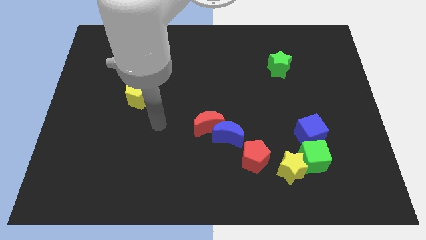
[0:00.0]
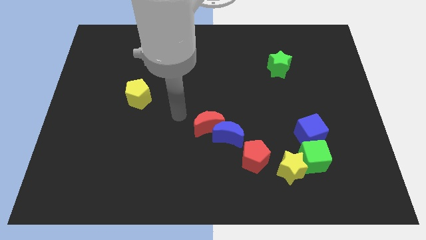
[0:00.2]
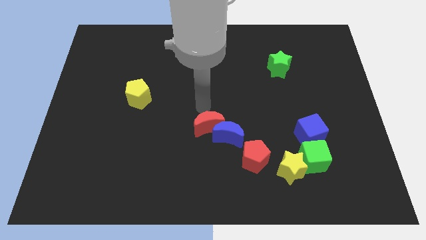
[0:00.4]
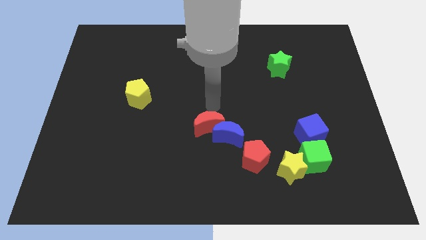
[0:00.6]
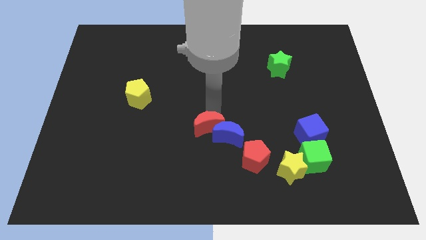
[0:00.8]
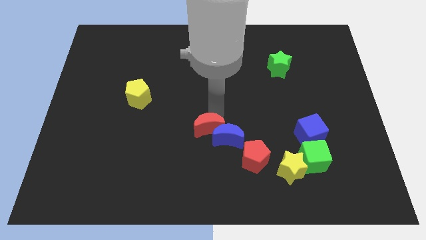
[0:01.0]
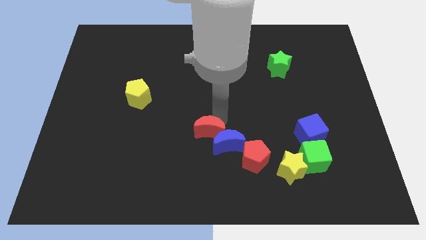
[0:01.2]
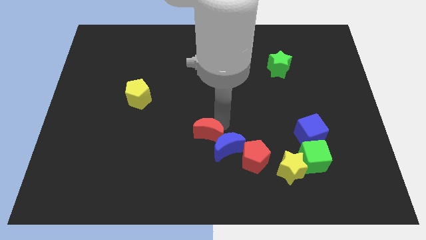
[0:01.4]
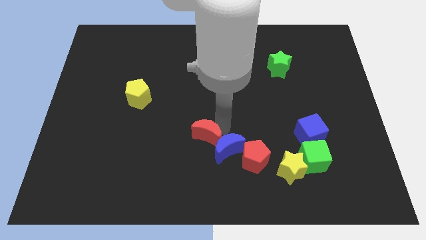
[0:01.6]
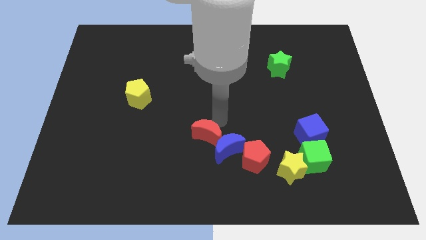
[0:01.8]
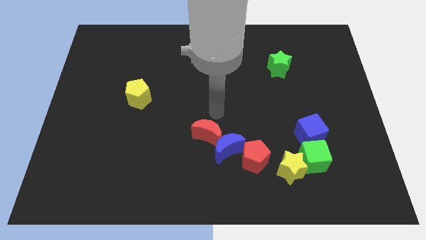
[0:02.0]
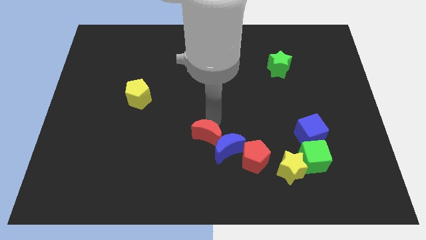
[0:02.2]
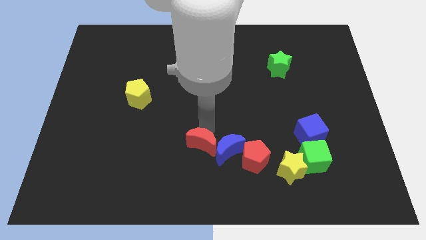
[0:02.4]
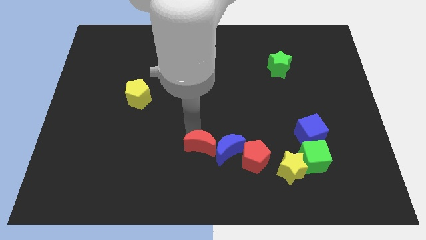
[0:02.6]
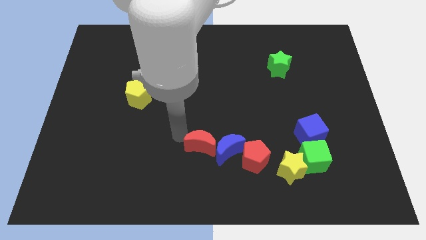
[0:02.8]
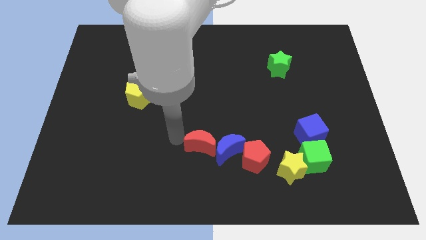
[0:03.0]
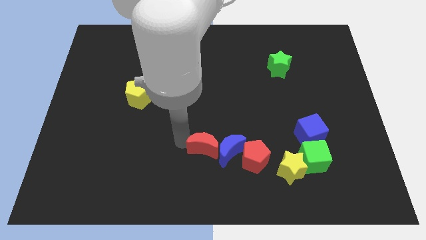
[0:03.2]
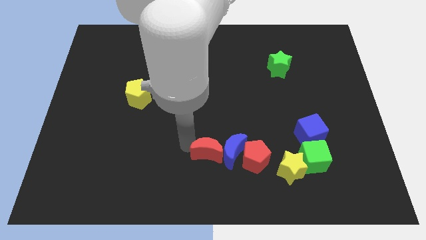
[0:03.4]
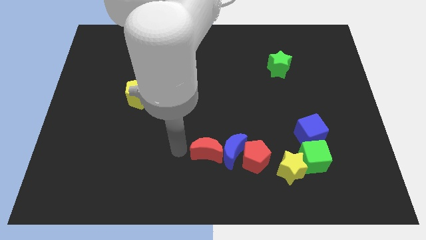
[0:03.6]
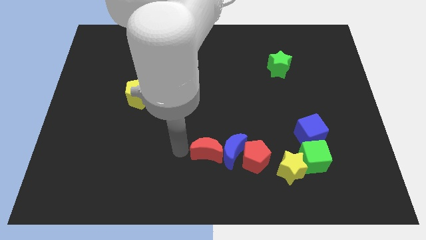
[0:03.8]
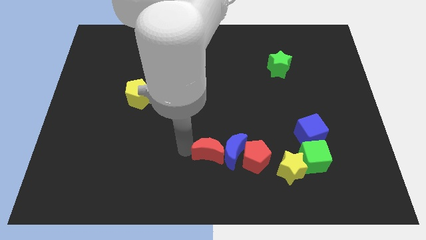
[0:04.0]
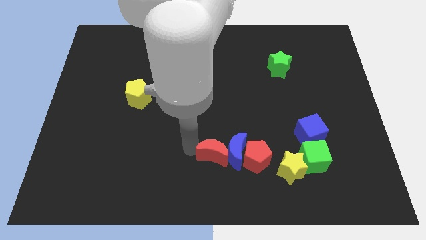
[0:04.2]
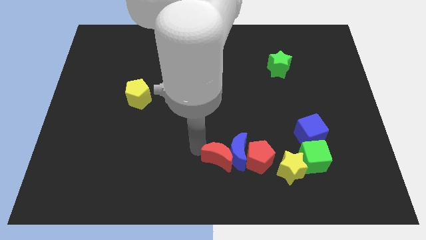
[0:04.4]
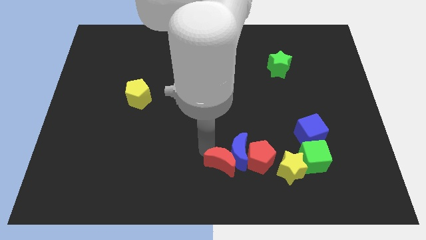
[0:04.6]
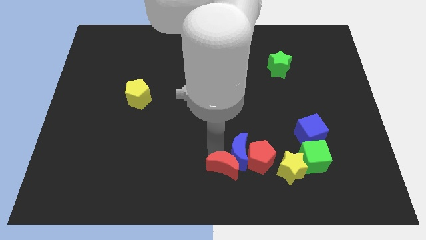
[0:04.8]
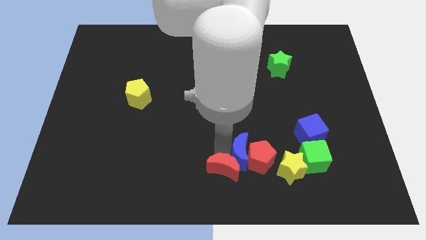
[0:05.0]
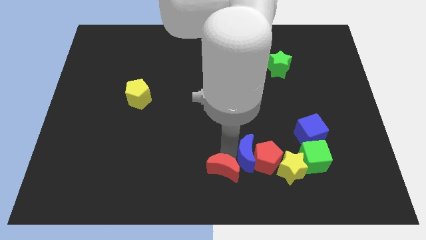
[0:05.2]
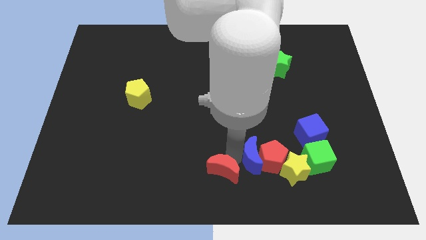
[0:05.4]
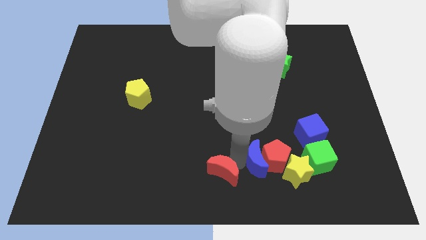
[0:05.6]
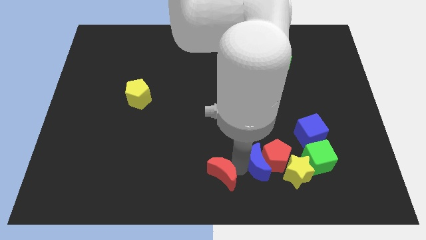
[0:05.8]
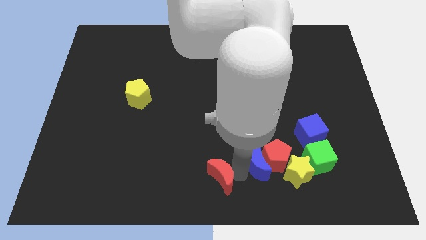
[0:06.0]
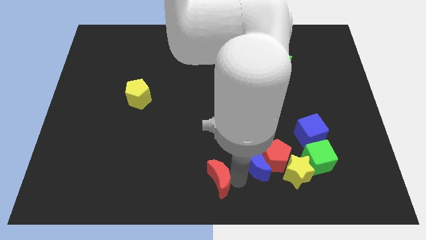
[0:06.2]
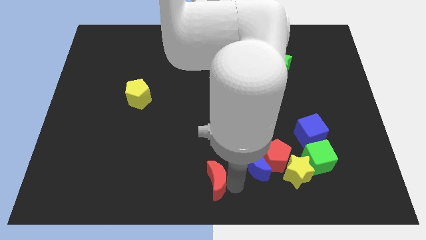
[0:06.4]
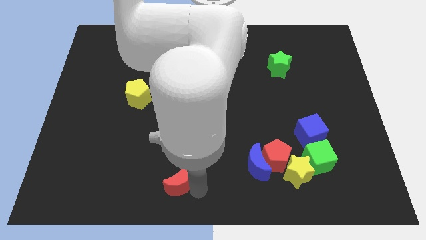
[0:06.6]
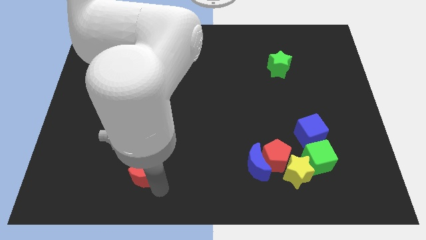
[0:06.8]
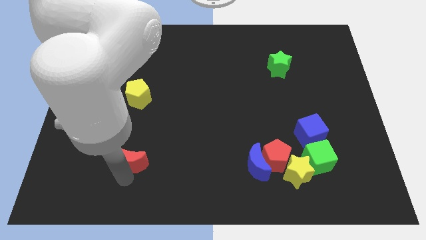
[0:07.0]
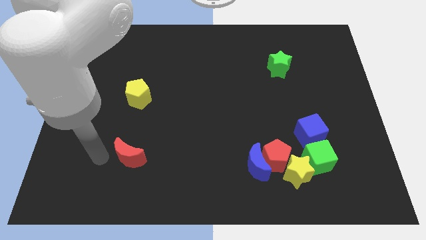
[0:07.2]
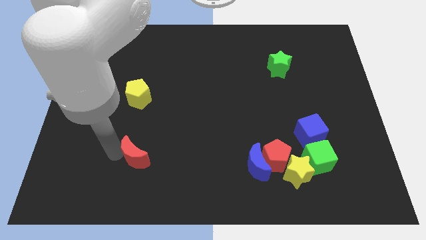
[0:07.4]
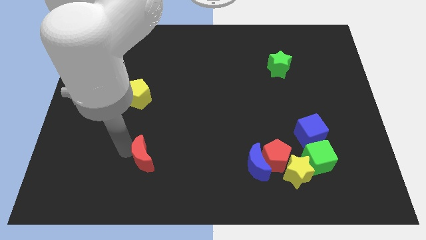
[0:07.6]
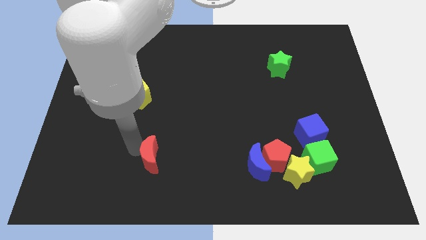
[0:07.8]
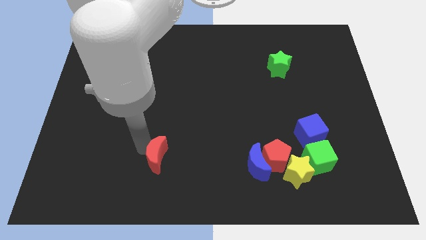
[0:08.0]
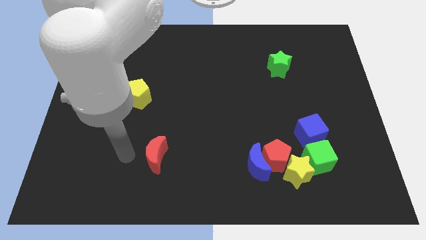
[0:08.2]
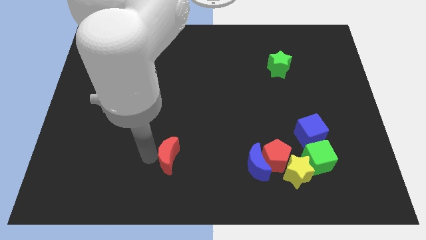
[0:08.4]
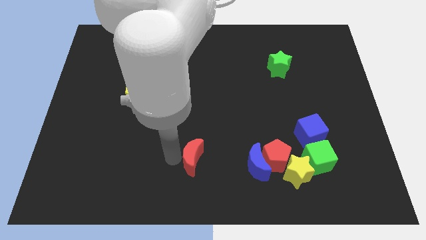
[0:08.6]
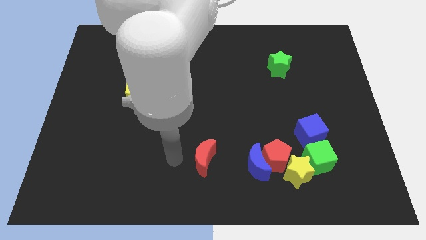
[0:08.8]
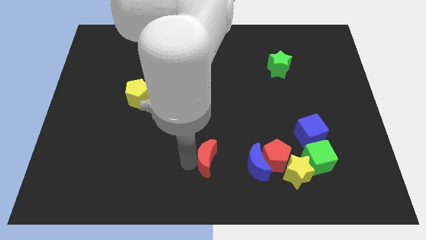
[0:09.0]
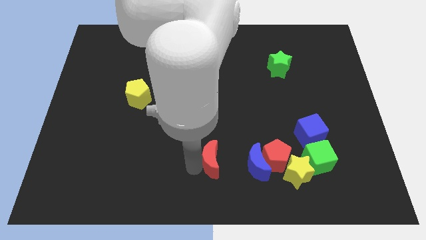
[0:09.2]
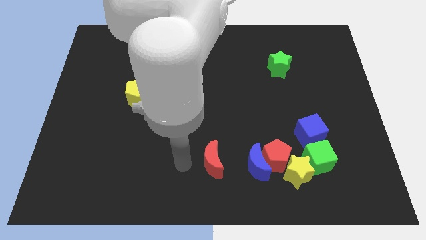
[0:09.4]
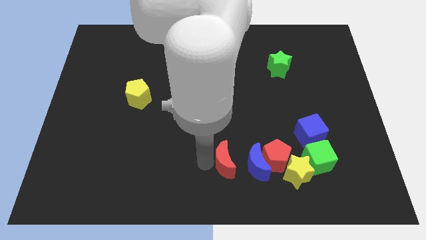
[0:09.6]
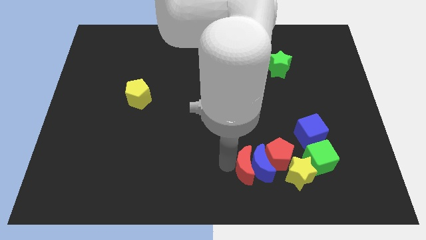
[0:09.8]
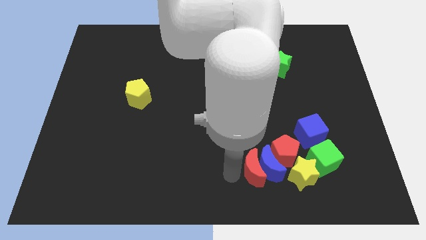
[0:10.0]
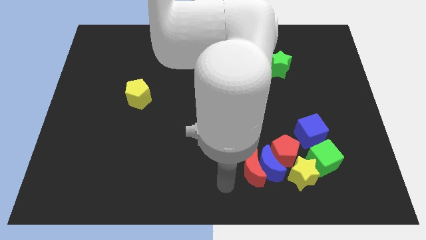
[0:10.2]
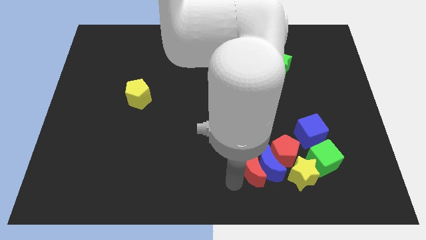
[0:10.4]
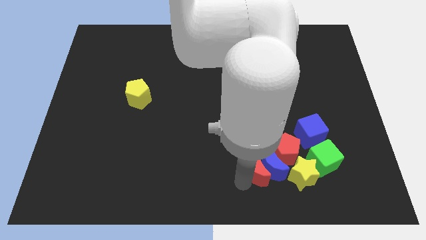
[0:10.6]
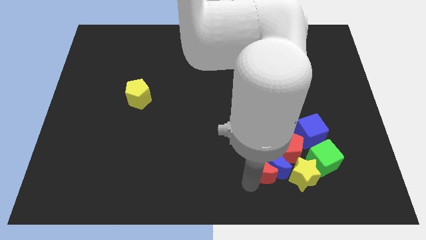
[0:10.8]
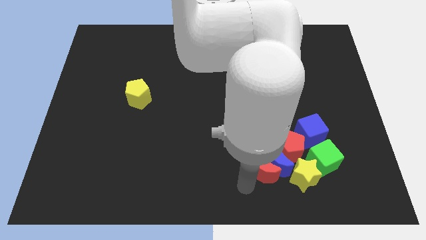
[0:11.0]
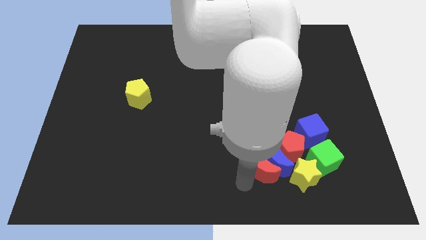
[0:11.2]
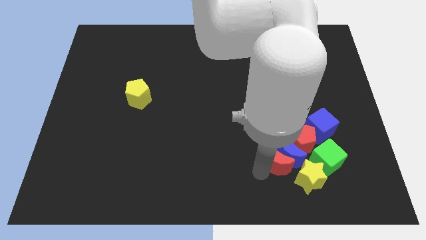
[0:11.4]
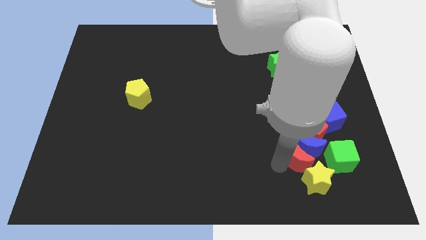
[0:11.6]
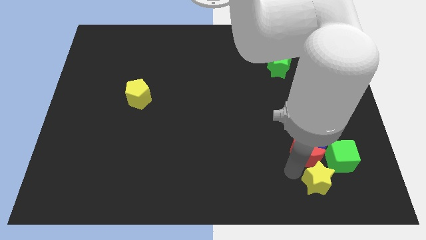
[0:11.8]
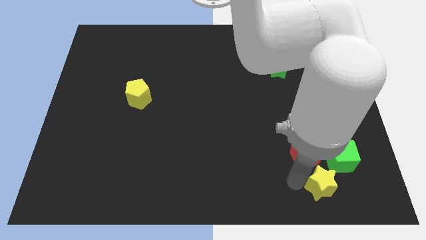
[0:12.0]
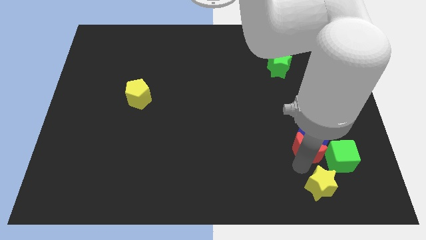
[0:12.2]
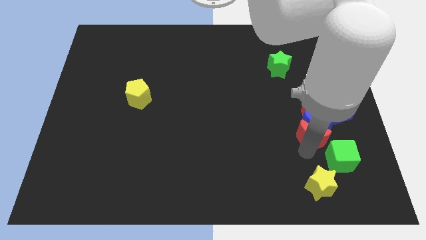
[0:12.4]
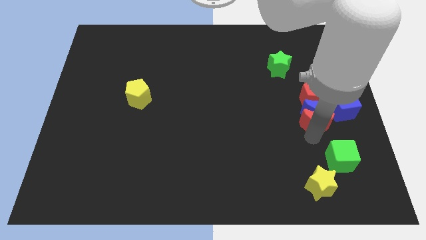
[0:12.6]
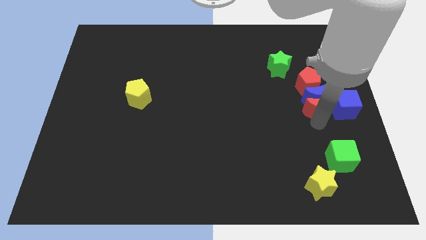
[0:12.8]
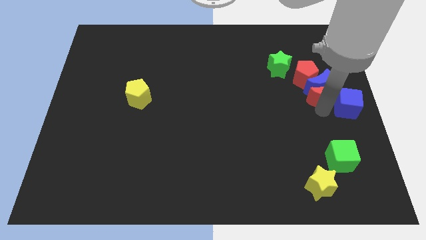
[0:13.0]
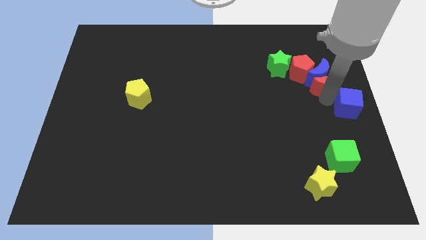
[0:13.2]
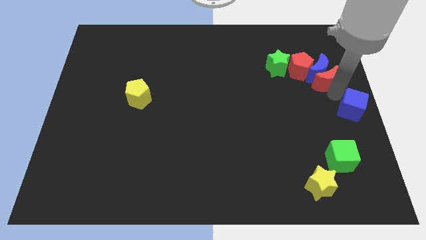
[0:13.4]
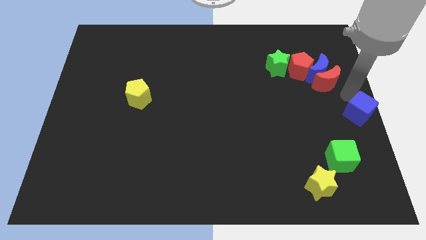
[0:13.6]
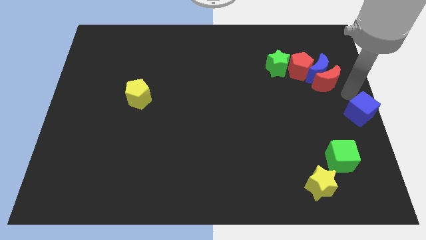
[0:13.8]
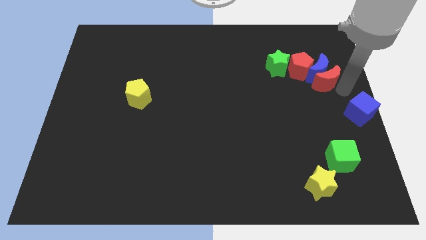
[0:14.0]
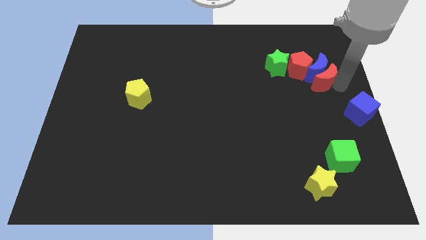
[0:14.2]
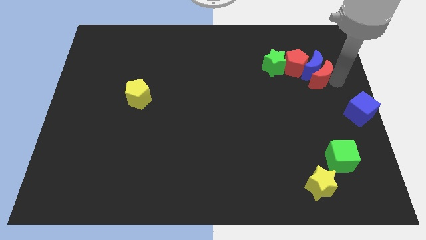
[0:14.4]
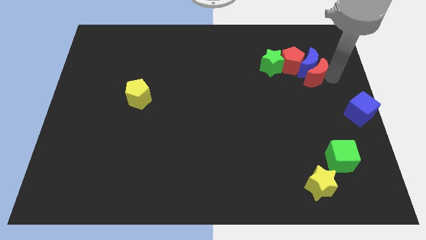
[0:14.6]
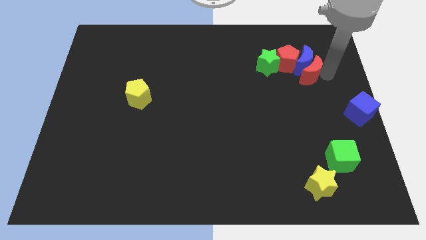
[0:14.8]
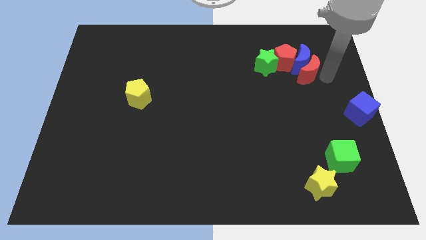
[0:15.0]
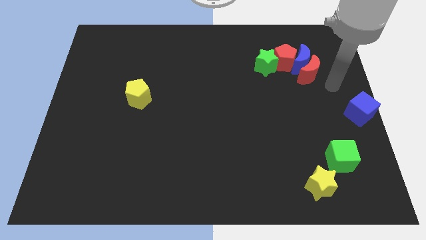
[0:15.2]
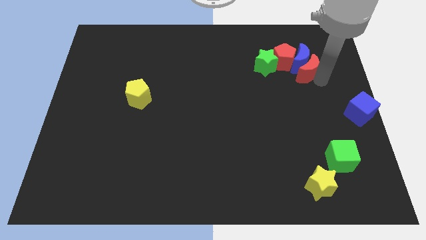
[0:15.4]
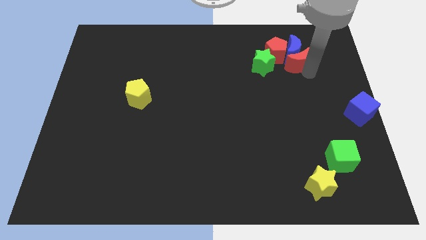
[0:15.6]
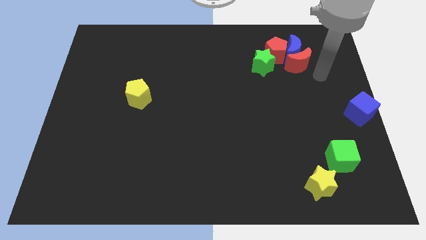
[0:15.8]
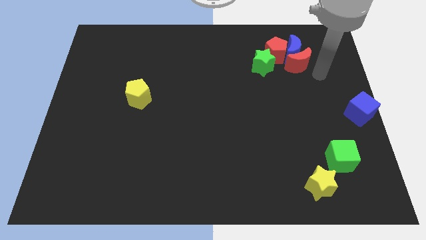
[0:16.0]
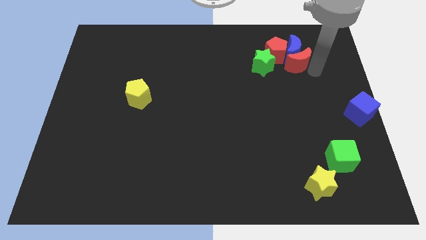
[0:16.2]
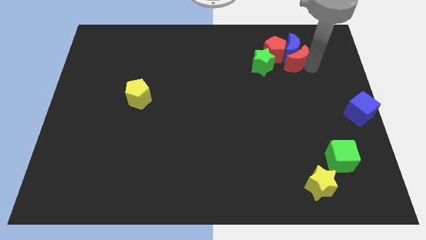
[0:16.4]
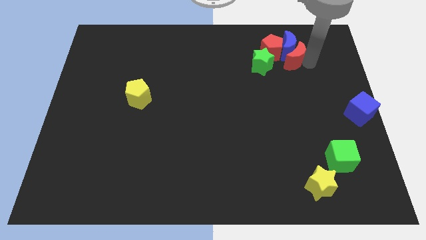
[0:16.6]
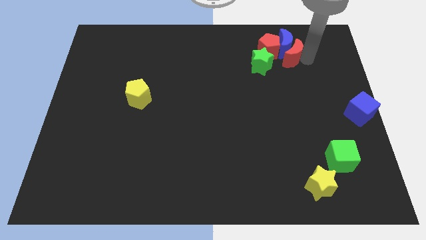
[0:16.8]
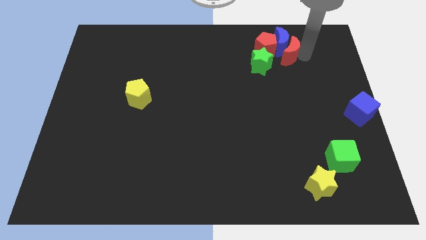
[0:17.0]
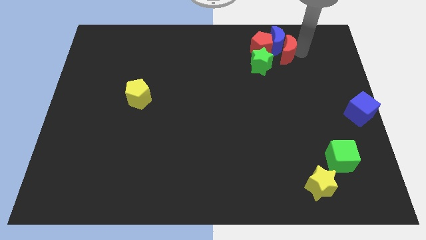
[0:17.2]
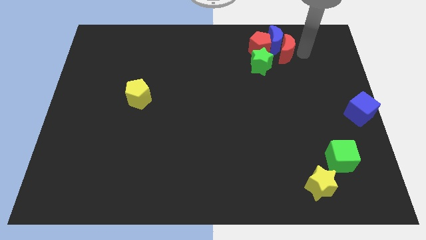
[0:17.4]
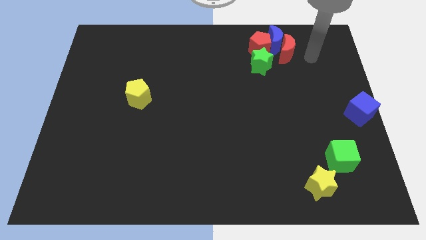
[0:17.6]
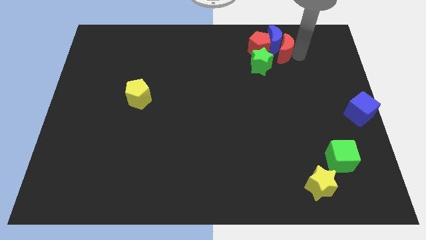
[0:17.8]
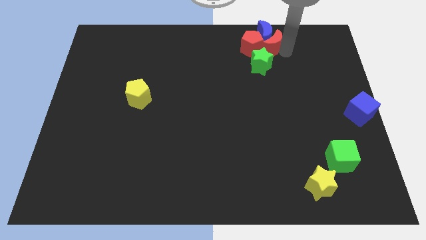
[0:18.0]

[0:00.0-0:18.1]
put the red moon close to the red pentagon
